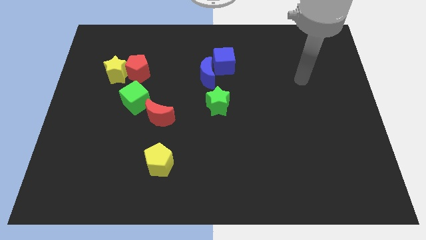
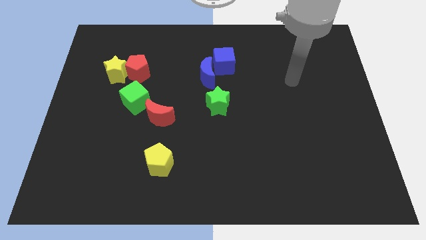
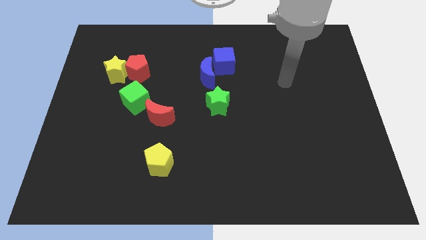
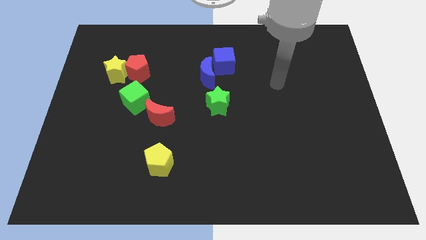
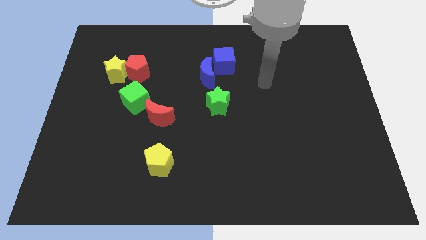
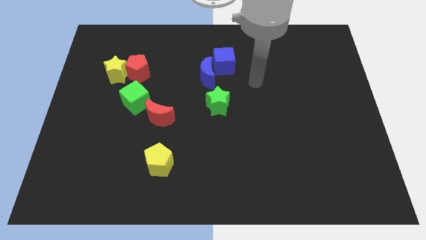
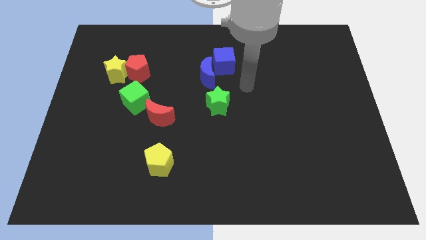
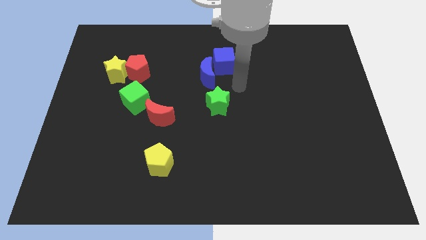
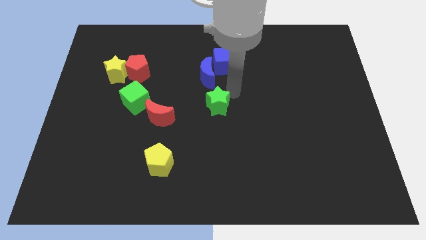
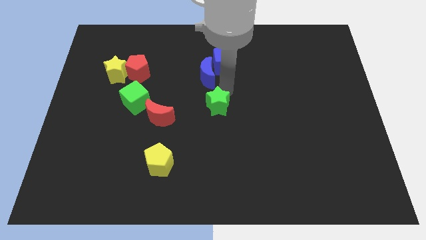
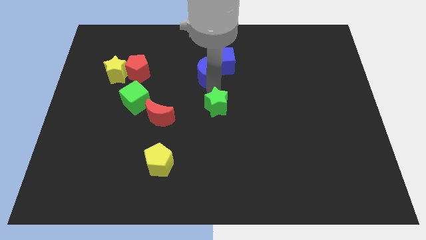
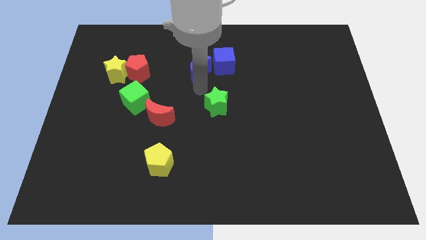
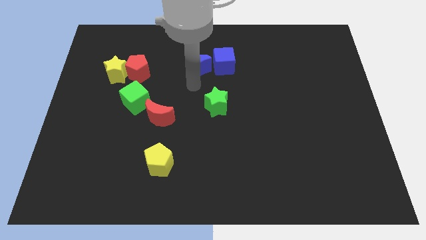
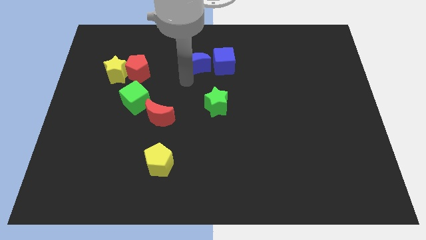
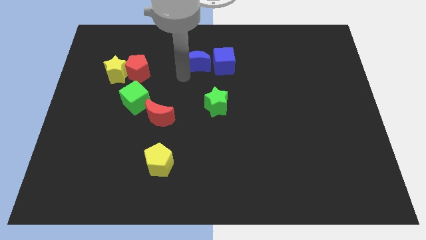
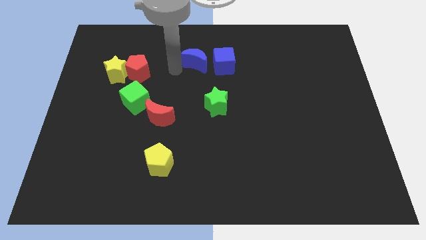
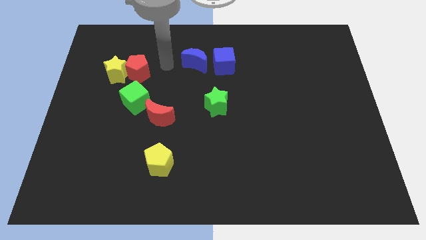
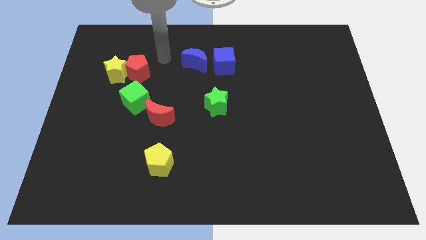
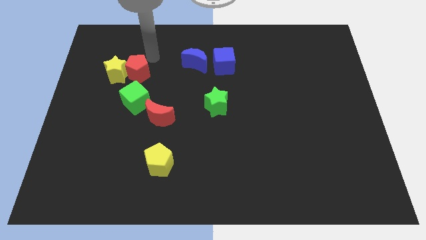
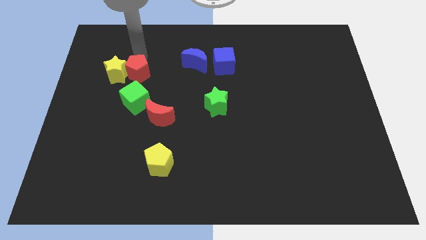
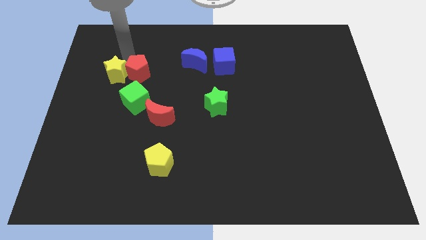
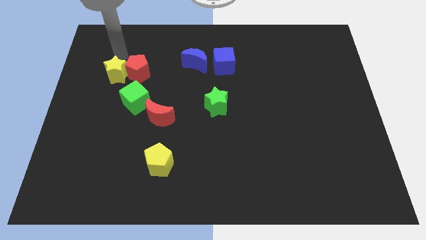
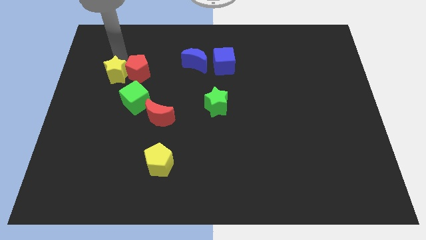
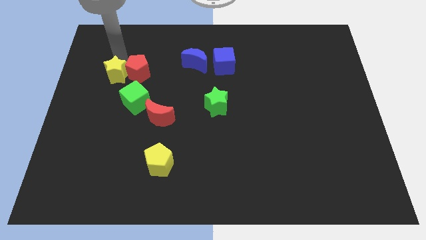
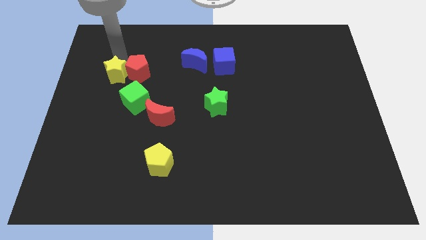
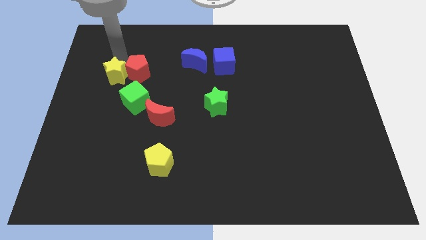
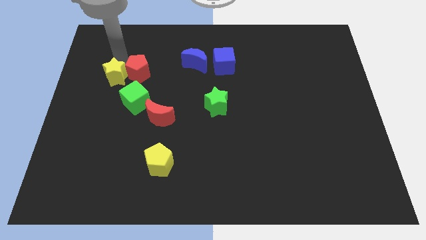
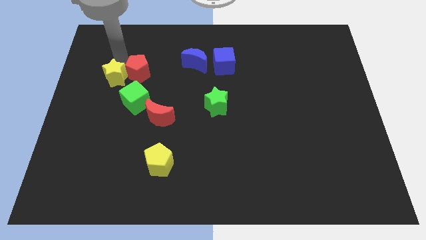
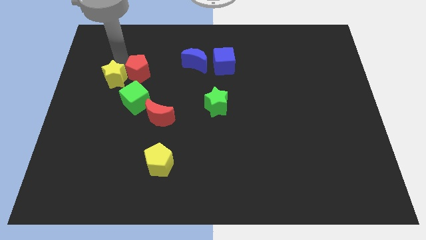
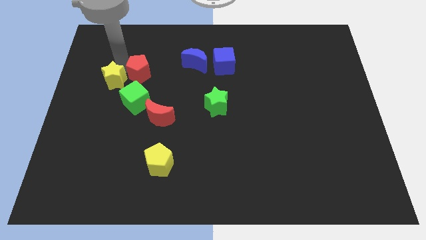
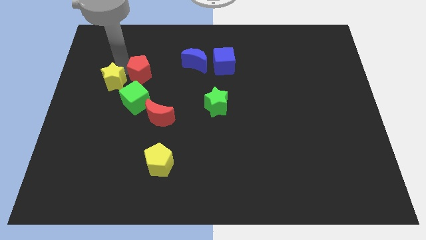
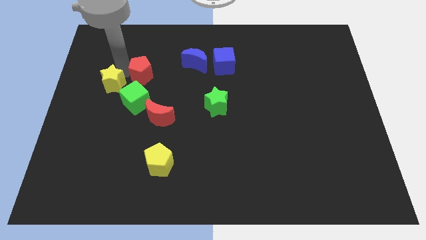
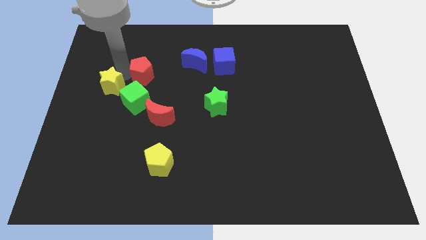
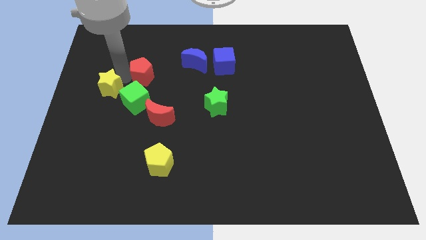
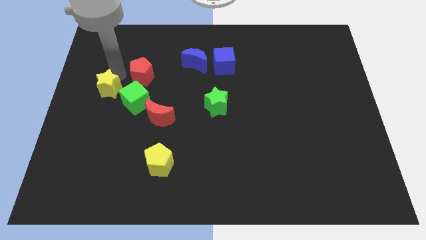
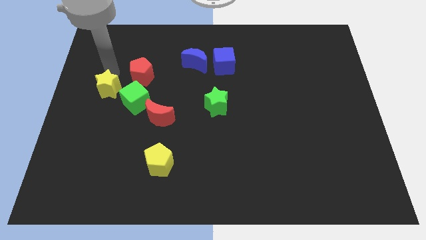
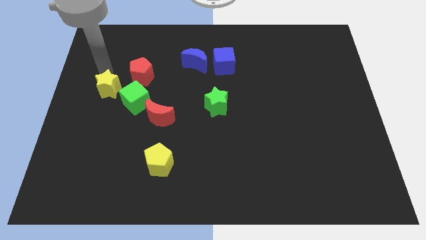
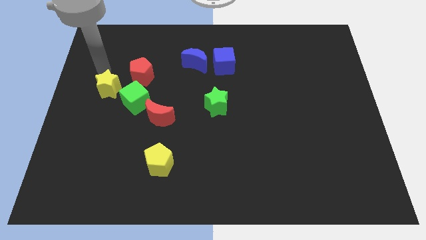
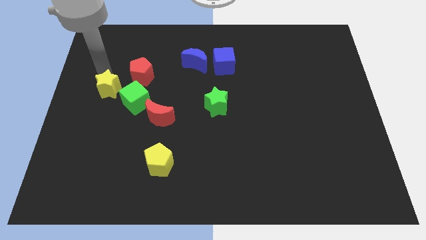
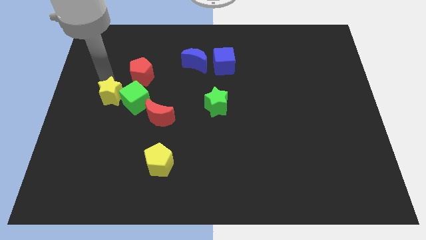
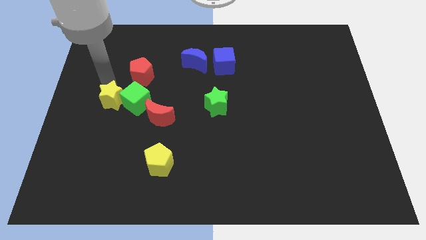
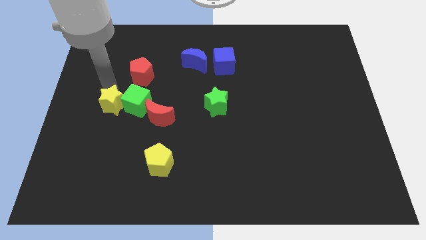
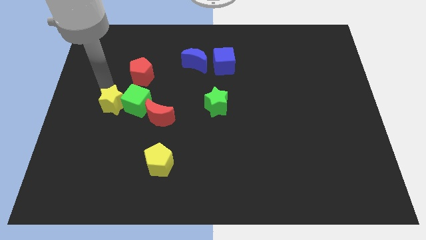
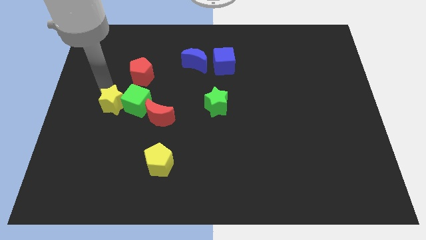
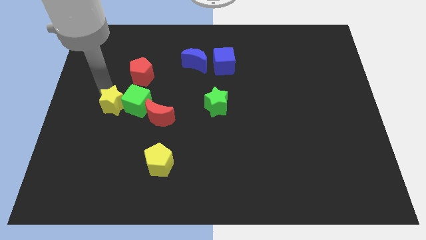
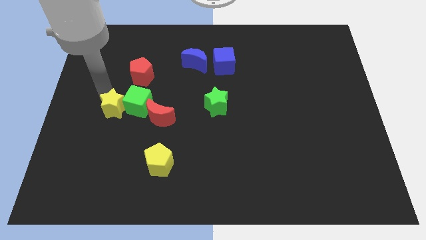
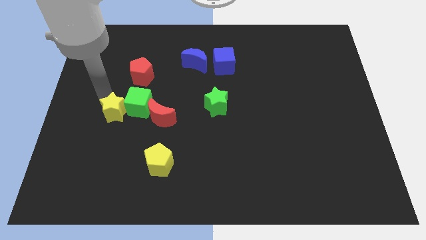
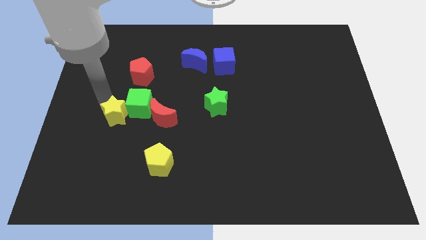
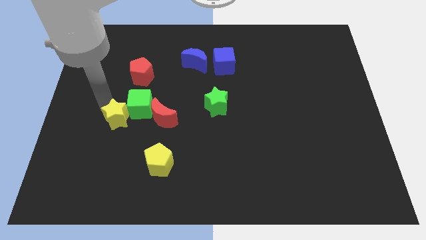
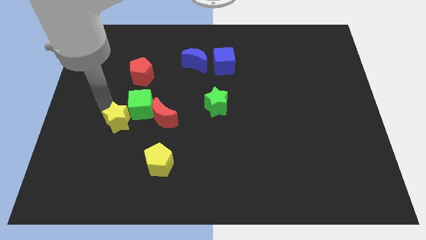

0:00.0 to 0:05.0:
put the yellow star below the green cube

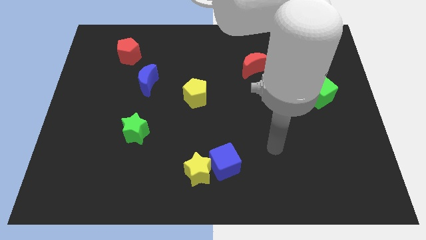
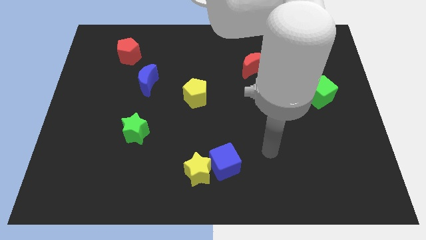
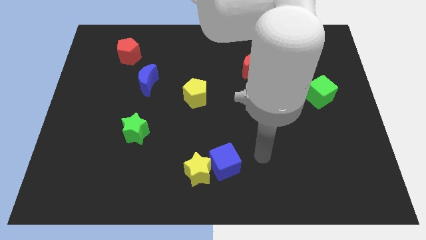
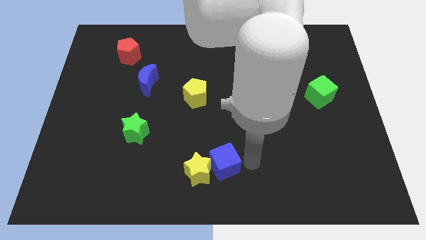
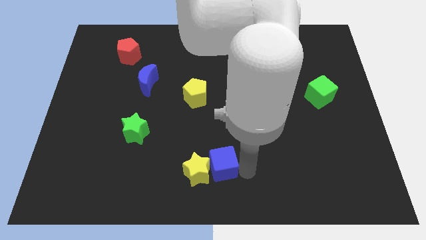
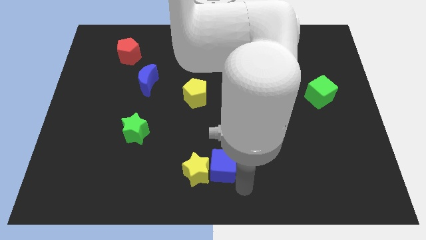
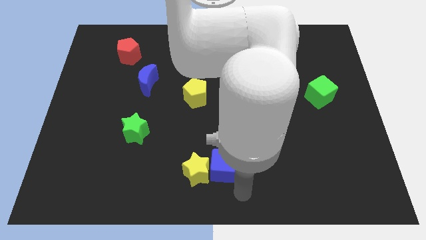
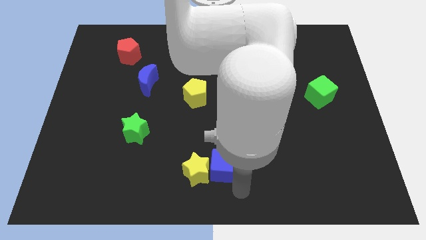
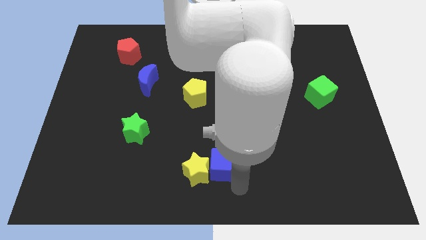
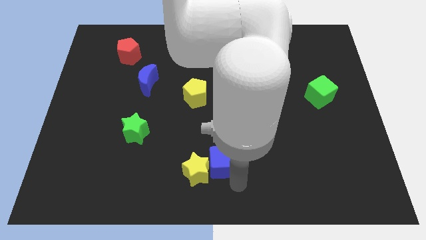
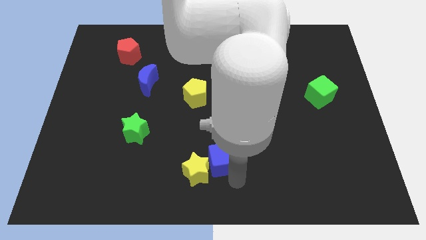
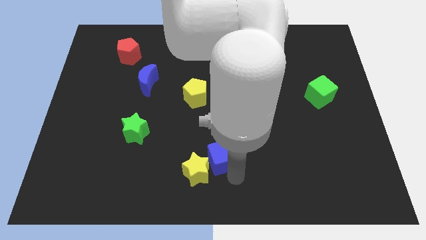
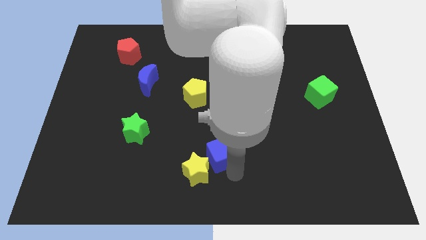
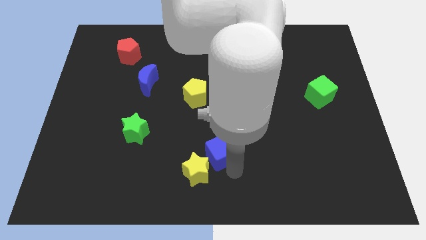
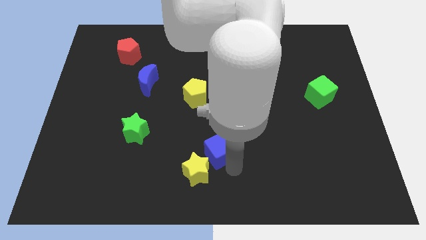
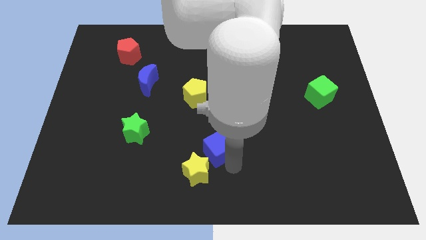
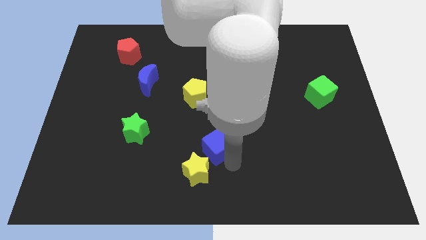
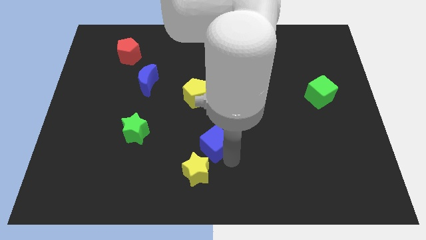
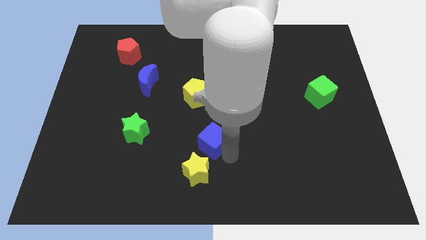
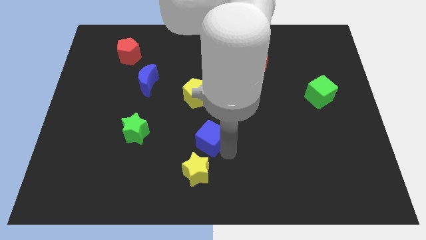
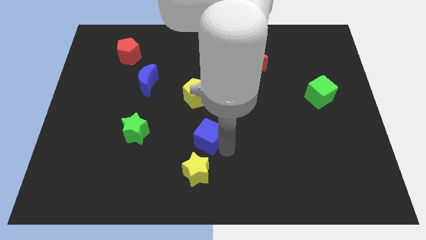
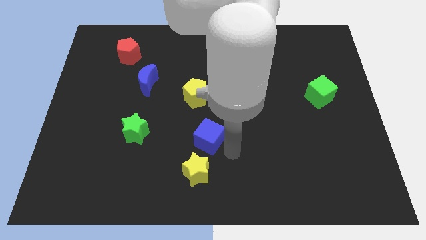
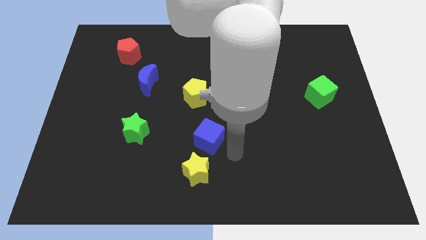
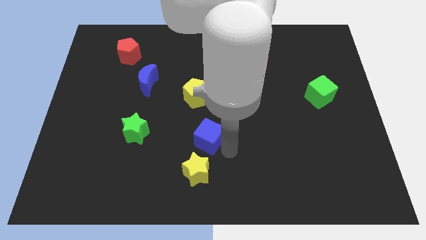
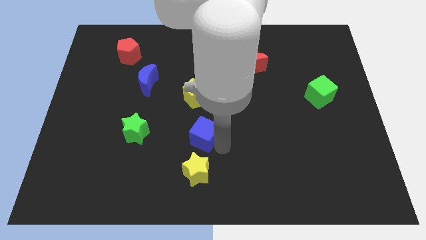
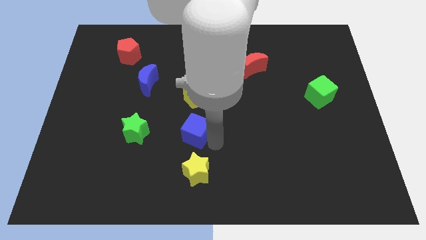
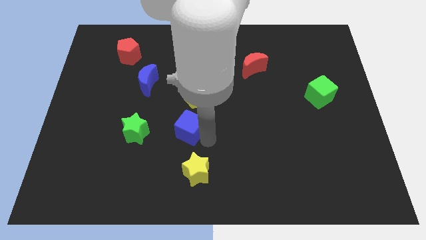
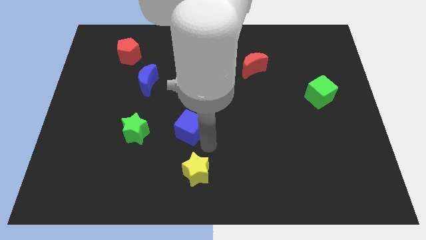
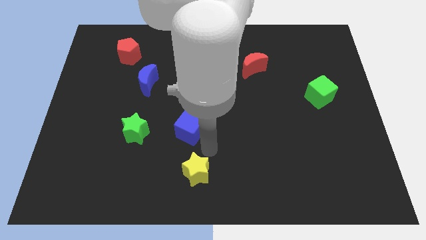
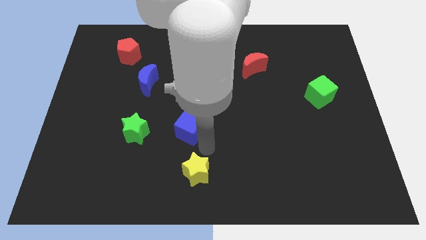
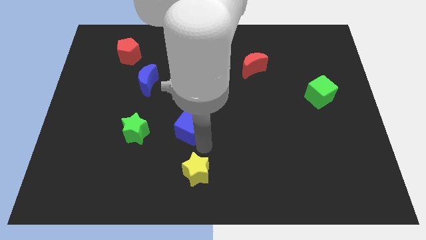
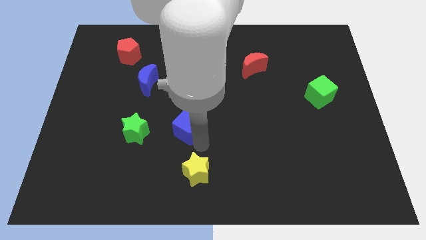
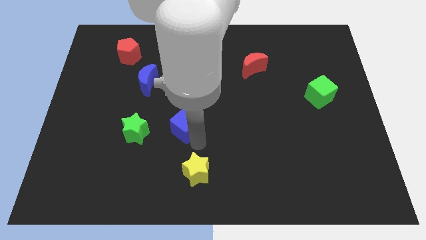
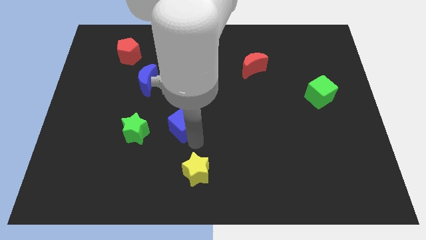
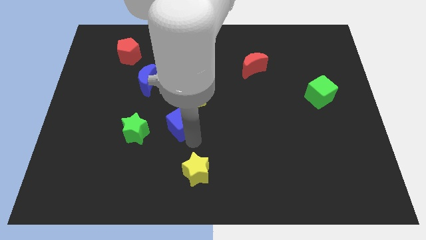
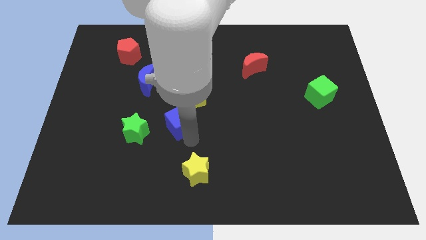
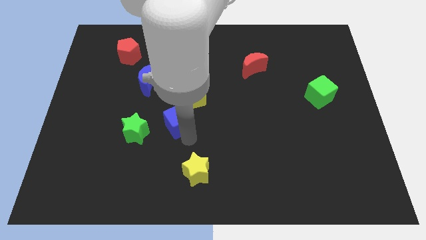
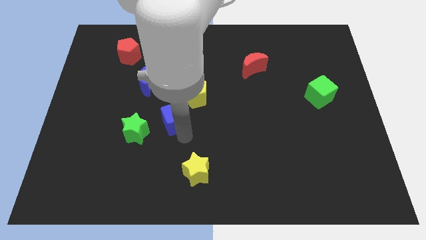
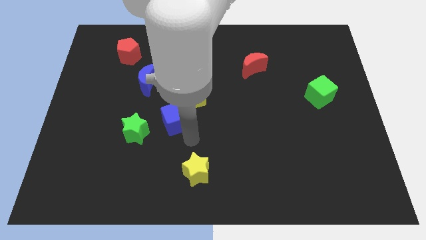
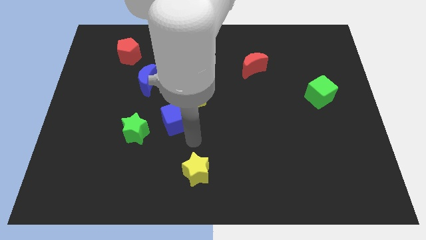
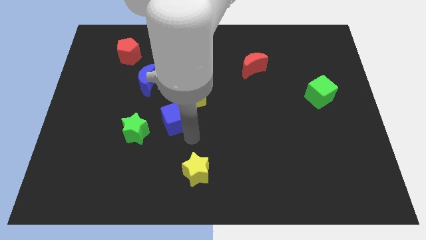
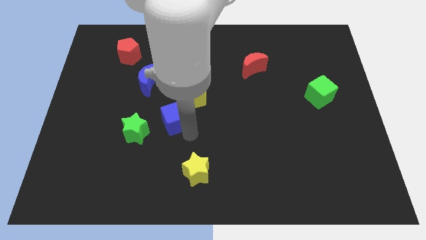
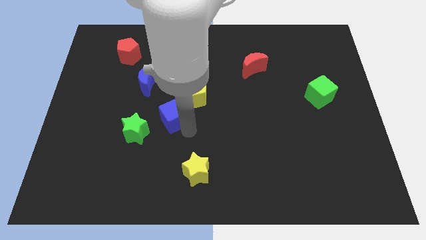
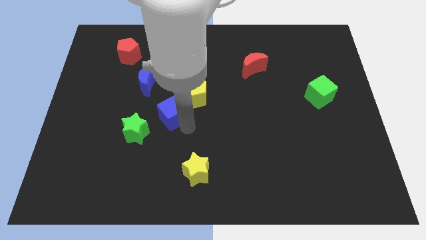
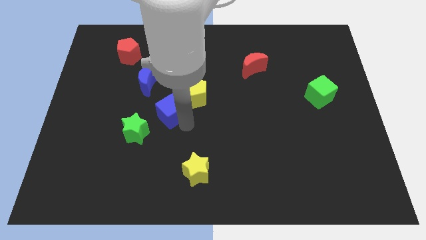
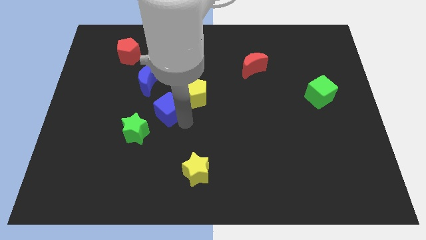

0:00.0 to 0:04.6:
slide the blue cube just left of the yellow pentagon
